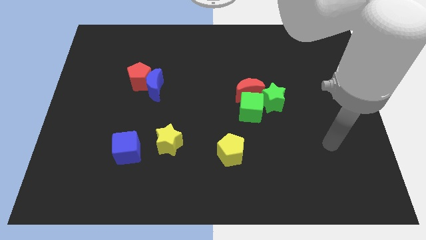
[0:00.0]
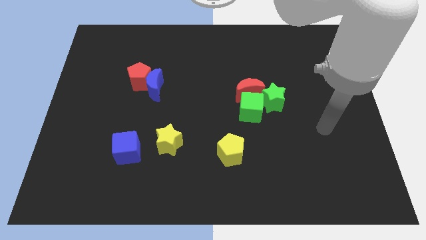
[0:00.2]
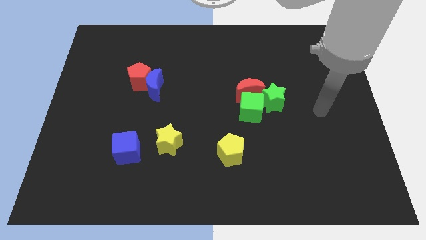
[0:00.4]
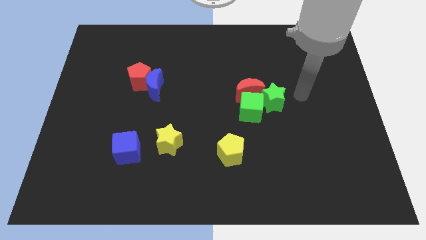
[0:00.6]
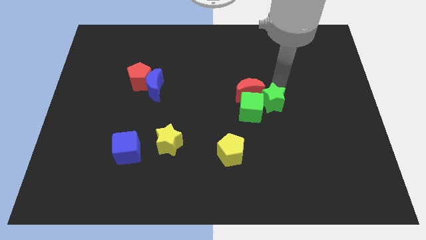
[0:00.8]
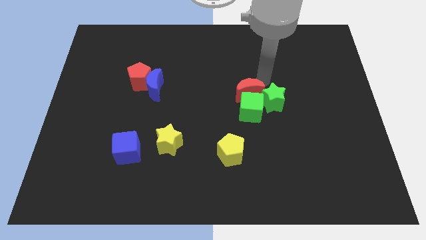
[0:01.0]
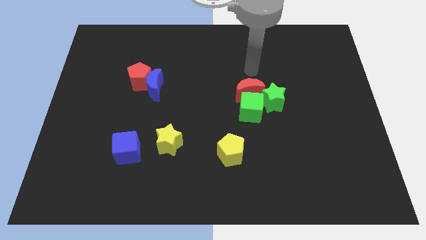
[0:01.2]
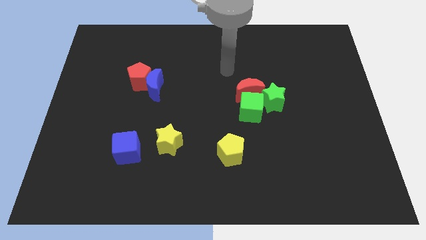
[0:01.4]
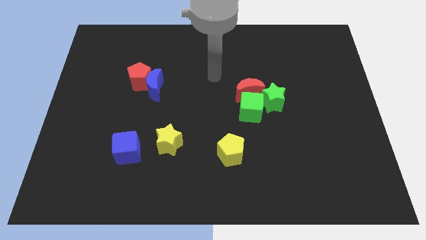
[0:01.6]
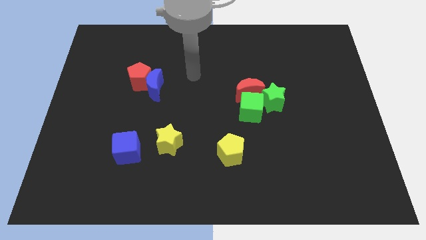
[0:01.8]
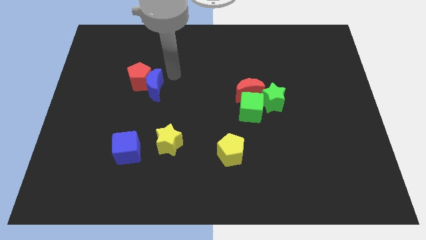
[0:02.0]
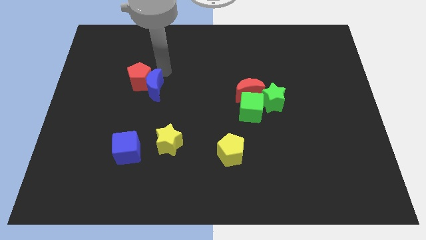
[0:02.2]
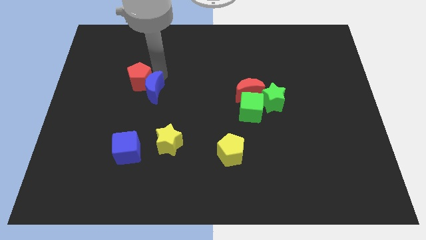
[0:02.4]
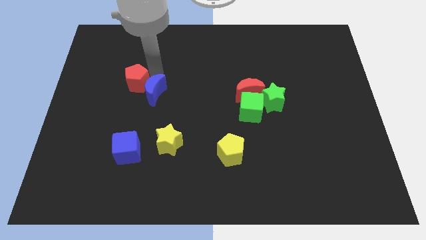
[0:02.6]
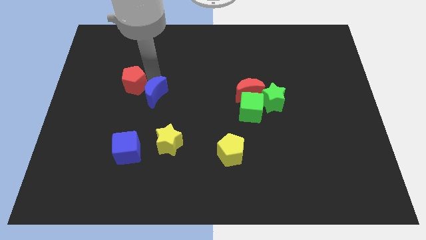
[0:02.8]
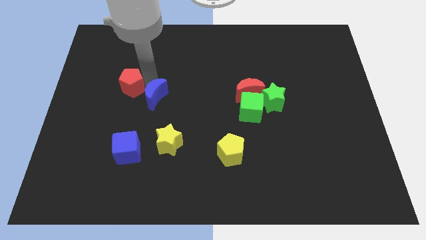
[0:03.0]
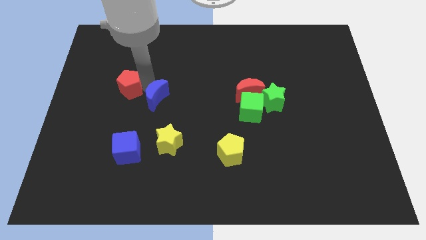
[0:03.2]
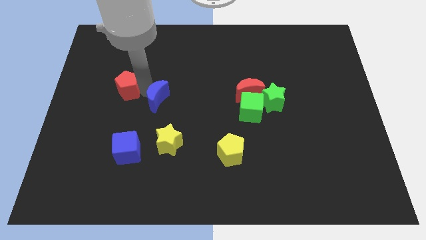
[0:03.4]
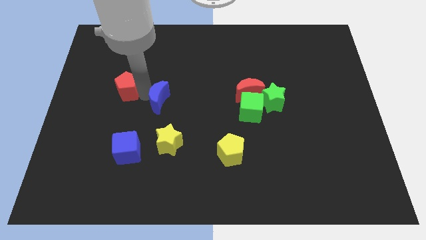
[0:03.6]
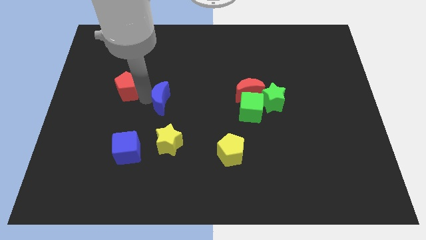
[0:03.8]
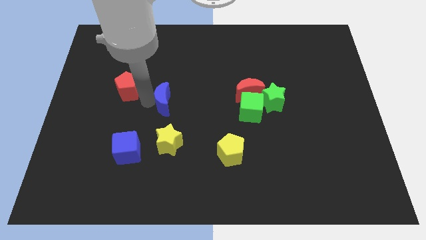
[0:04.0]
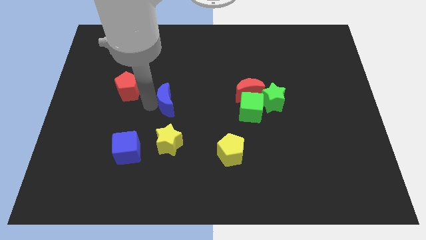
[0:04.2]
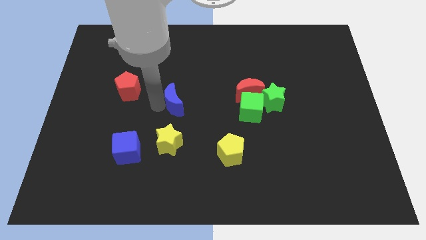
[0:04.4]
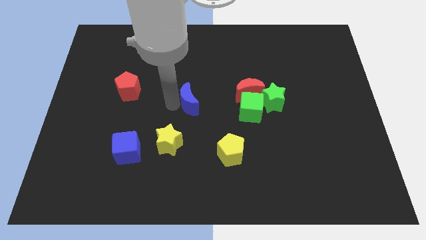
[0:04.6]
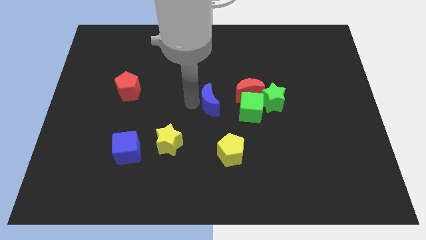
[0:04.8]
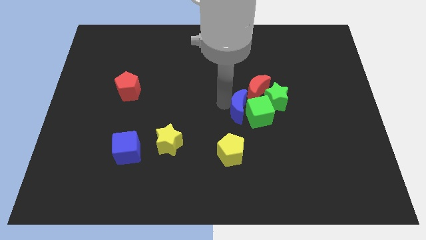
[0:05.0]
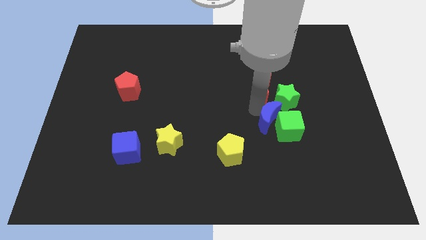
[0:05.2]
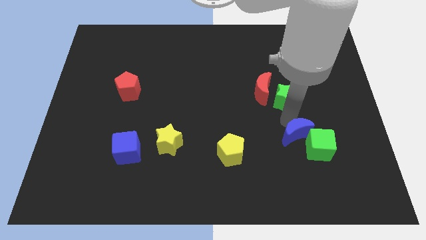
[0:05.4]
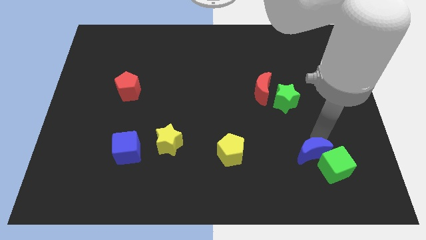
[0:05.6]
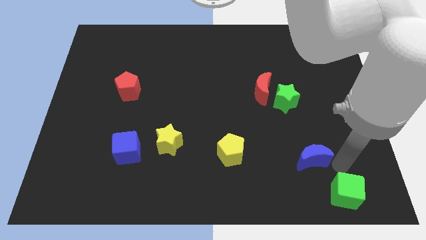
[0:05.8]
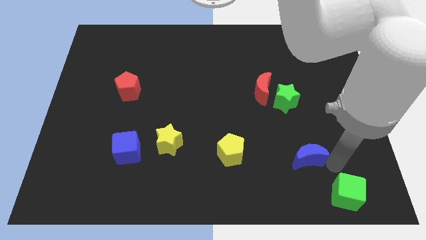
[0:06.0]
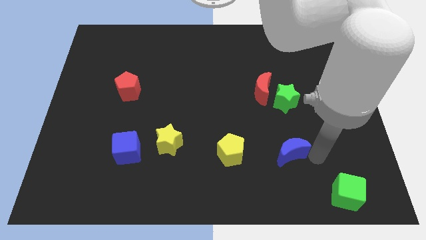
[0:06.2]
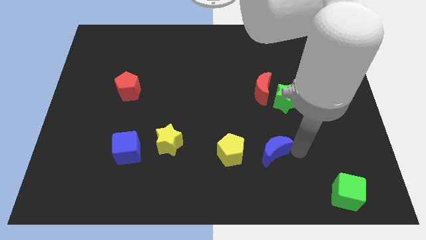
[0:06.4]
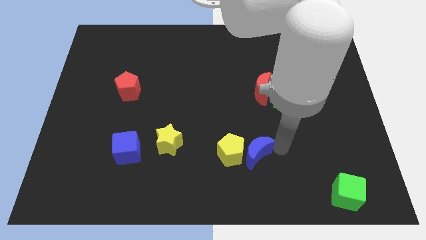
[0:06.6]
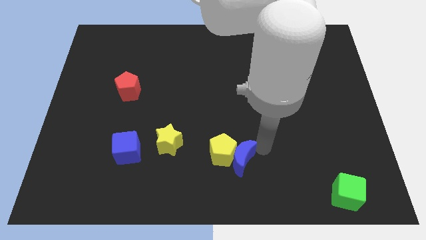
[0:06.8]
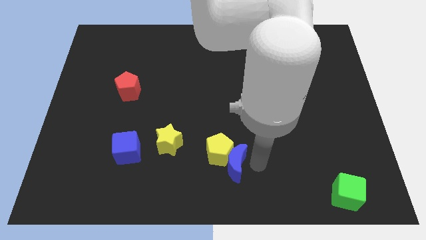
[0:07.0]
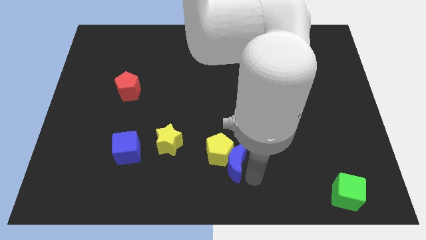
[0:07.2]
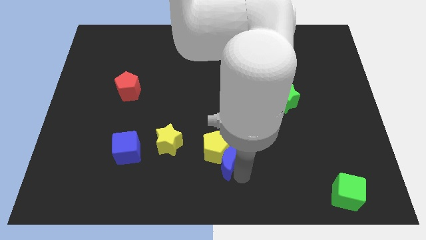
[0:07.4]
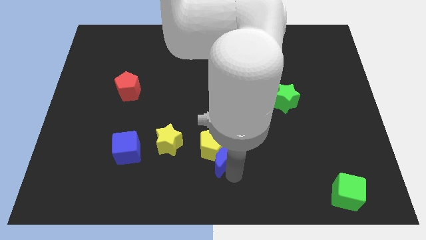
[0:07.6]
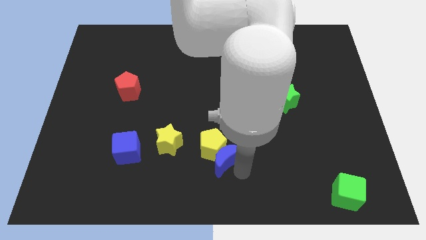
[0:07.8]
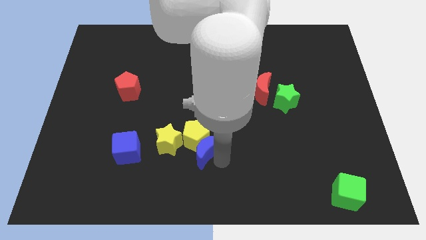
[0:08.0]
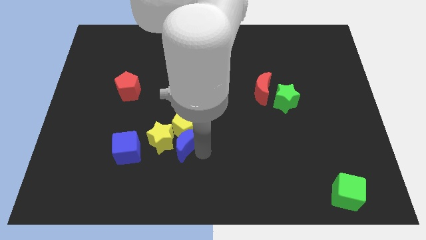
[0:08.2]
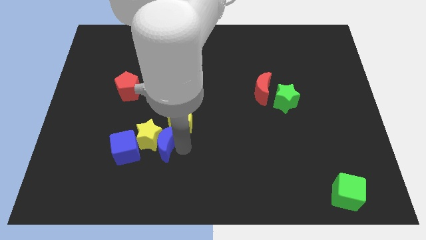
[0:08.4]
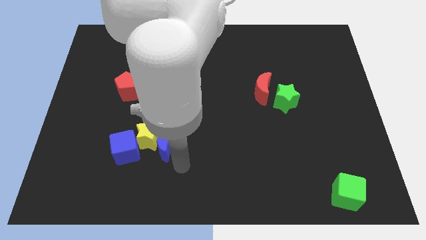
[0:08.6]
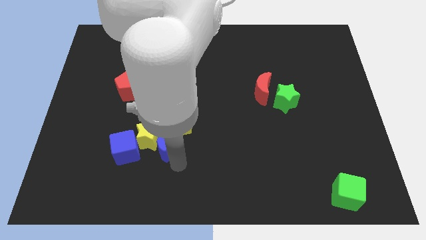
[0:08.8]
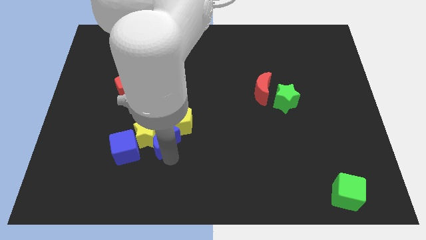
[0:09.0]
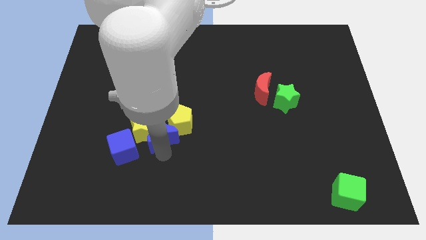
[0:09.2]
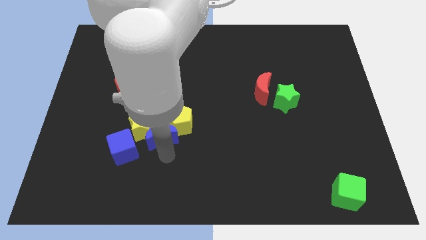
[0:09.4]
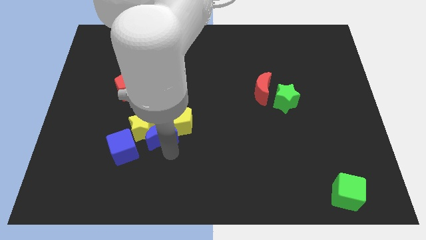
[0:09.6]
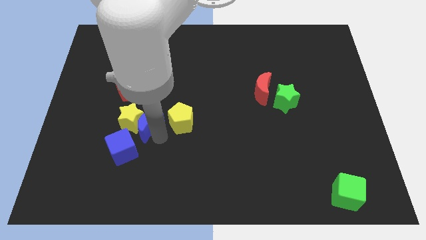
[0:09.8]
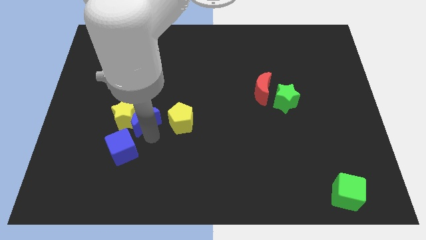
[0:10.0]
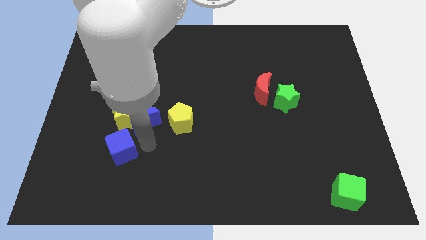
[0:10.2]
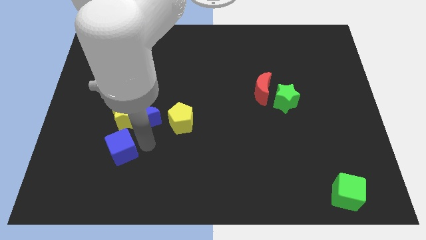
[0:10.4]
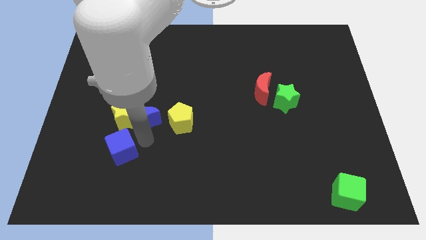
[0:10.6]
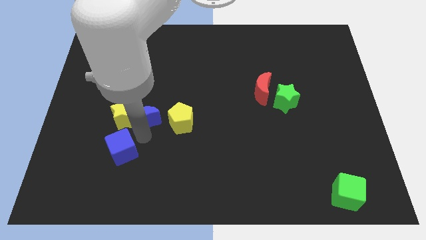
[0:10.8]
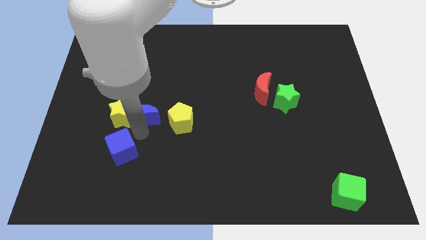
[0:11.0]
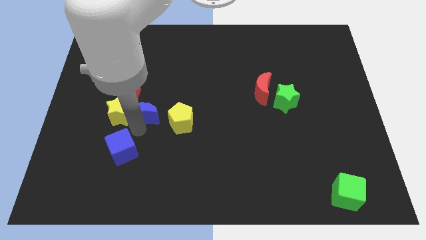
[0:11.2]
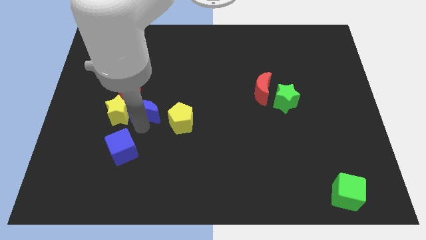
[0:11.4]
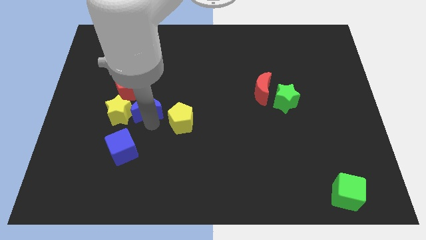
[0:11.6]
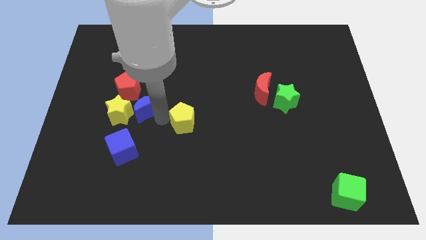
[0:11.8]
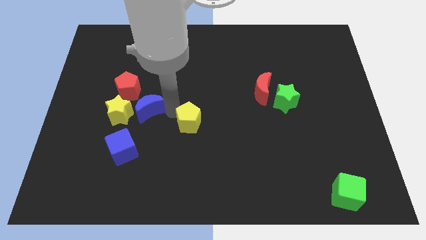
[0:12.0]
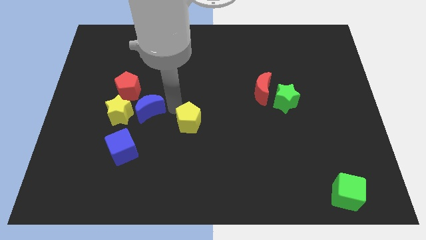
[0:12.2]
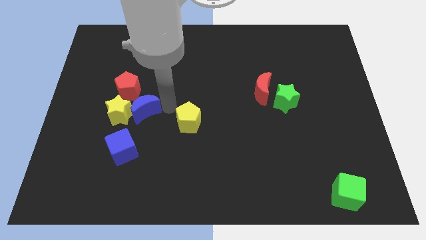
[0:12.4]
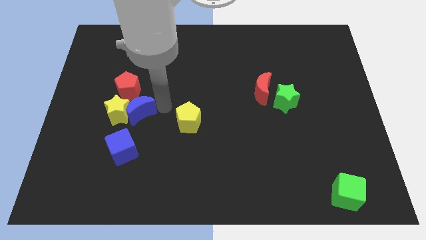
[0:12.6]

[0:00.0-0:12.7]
move the blue moon diagonally down and to the left somewhat

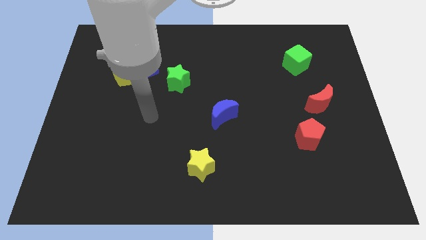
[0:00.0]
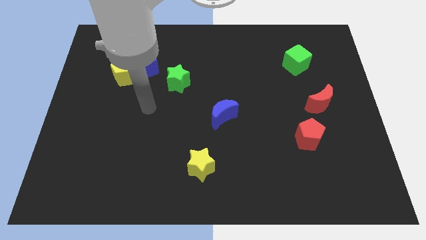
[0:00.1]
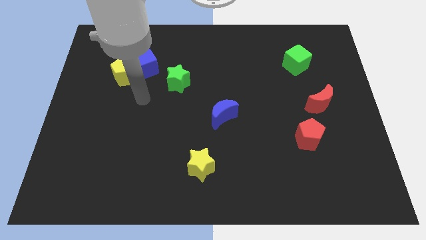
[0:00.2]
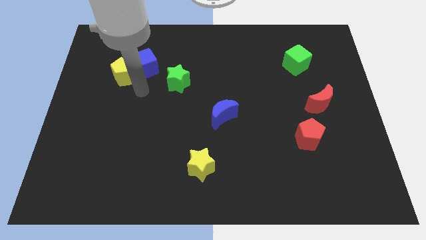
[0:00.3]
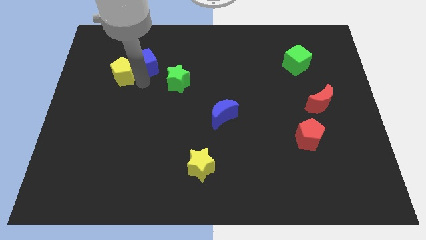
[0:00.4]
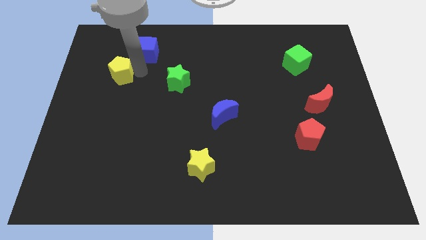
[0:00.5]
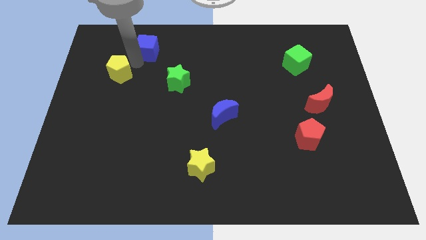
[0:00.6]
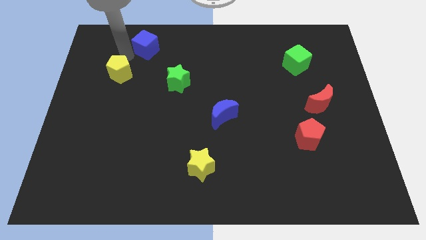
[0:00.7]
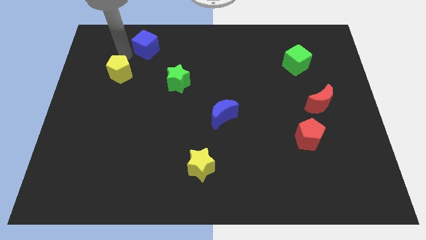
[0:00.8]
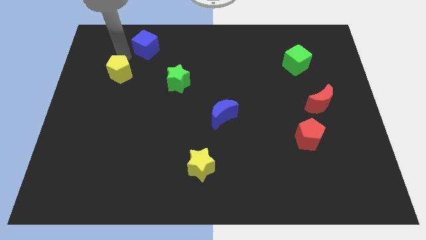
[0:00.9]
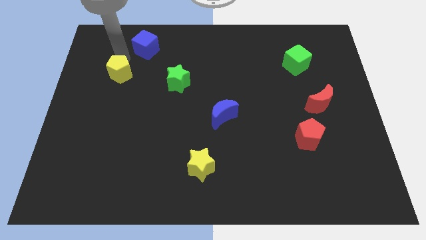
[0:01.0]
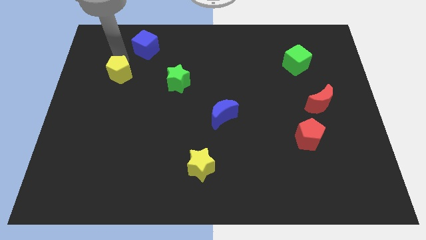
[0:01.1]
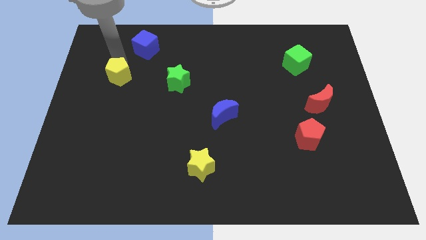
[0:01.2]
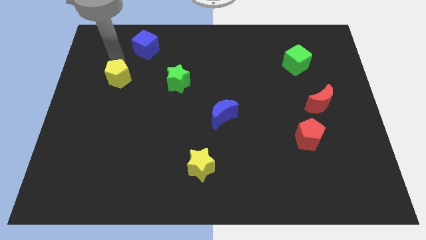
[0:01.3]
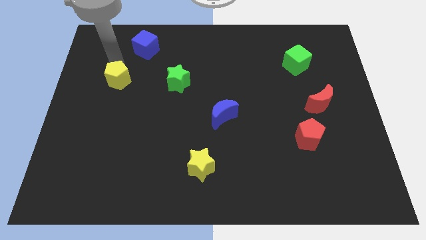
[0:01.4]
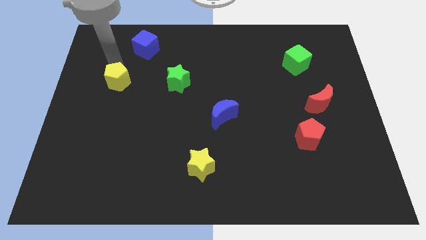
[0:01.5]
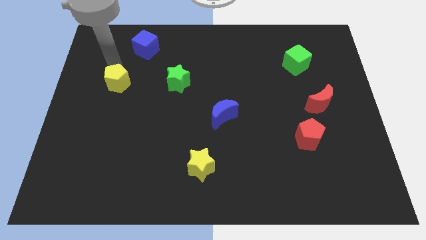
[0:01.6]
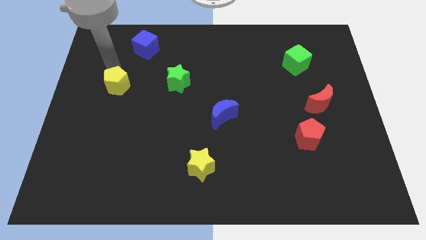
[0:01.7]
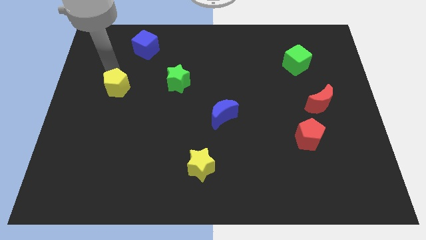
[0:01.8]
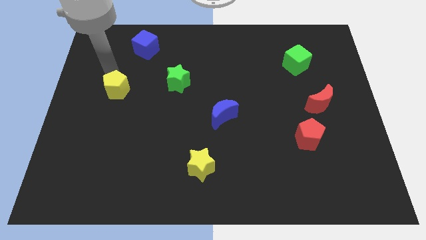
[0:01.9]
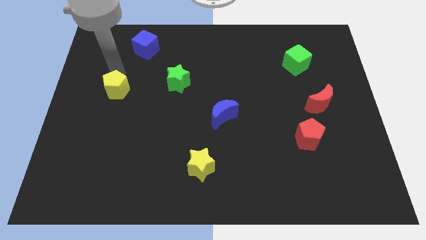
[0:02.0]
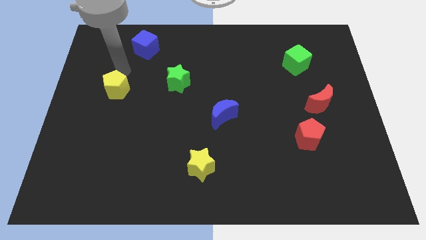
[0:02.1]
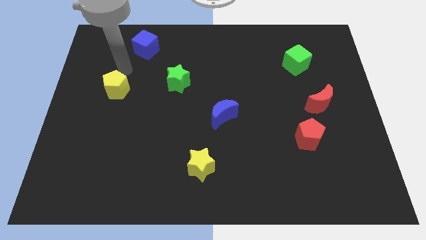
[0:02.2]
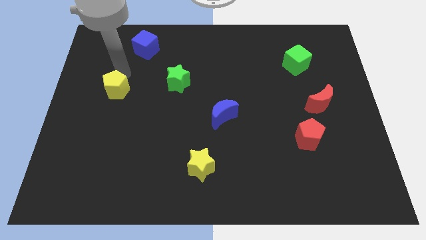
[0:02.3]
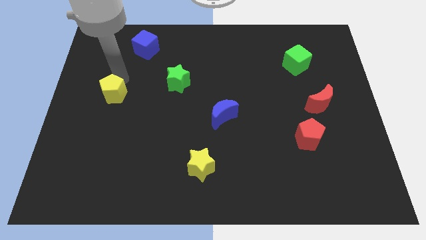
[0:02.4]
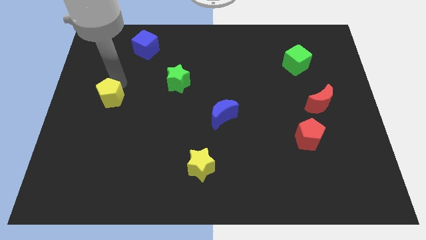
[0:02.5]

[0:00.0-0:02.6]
slightly push the yellow pentagon down
